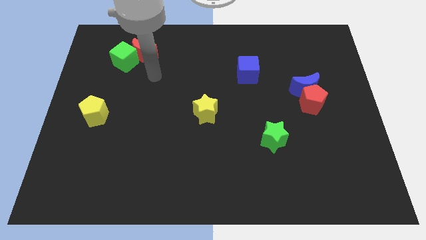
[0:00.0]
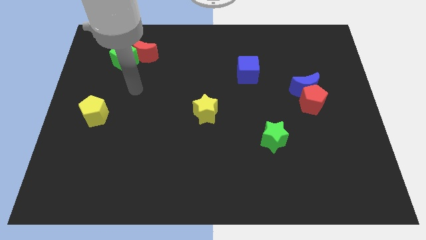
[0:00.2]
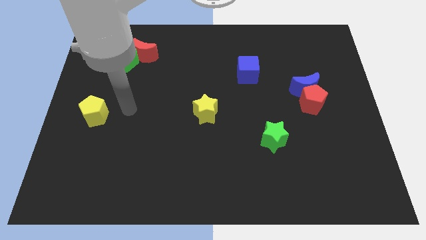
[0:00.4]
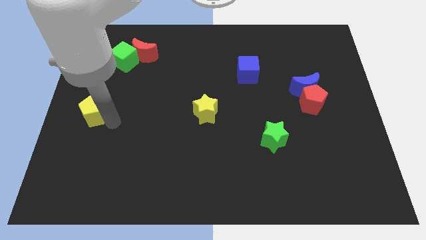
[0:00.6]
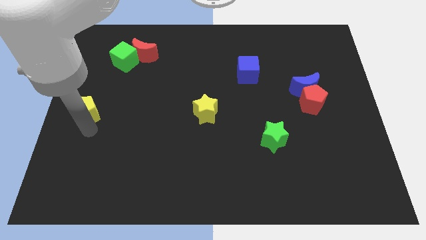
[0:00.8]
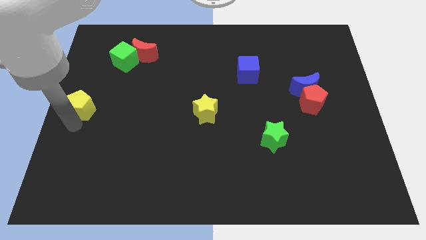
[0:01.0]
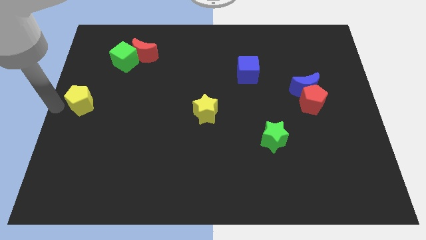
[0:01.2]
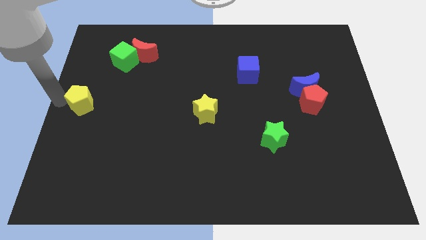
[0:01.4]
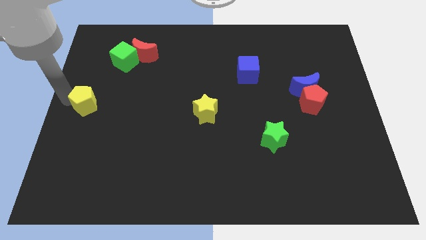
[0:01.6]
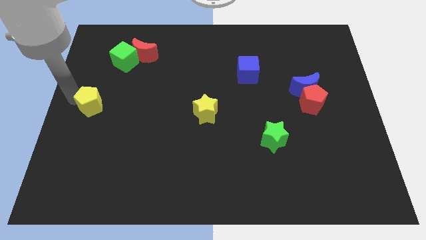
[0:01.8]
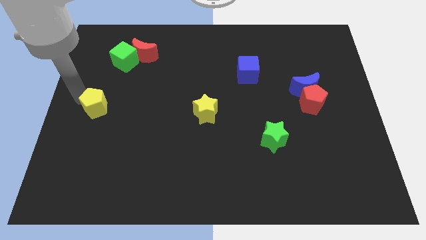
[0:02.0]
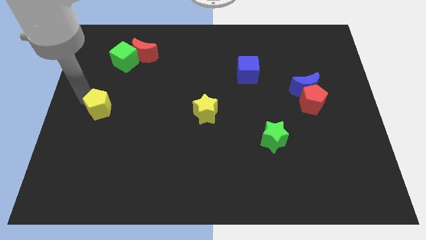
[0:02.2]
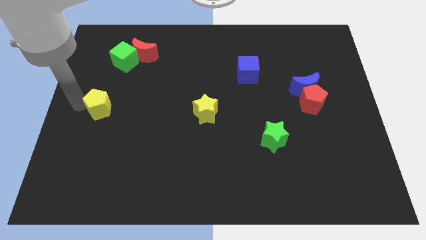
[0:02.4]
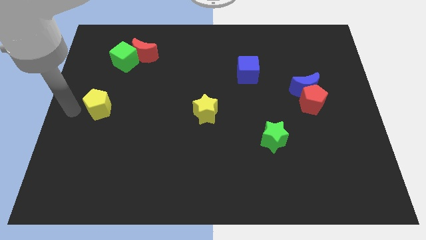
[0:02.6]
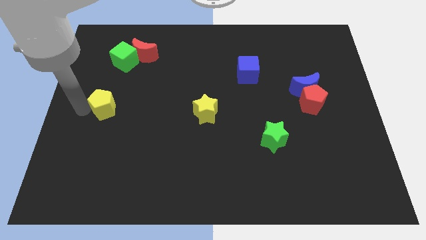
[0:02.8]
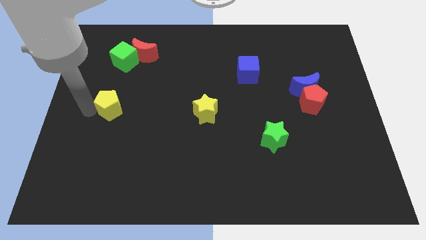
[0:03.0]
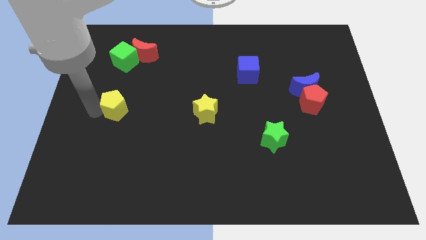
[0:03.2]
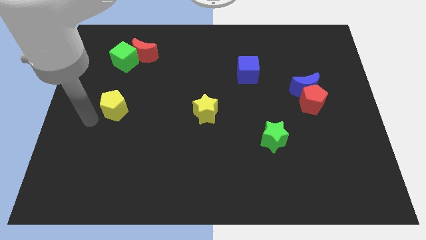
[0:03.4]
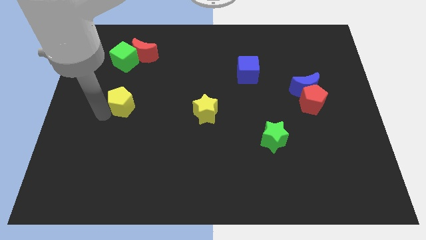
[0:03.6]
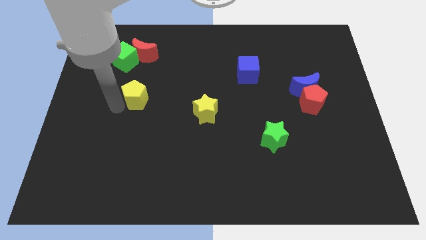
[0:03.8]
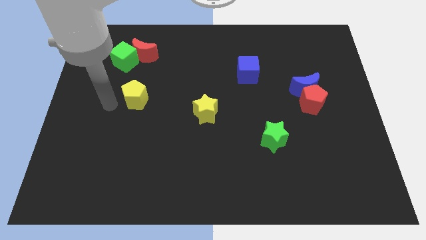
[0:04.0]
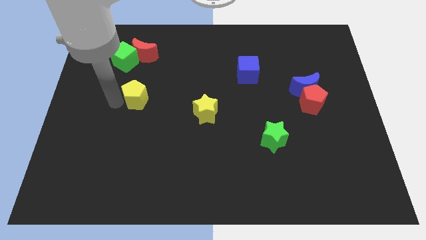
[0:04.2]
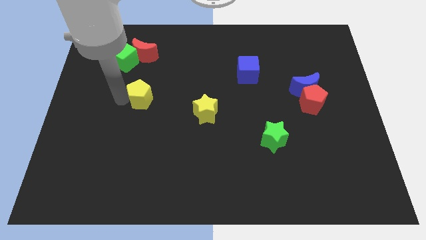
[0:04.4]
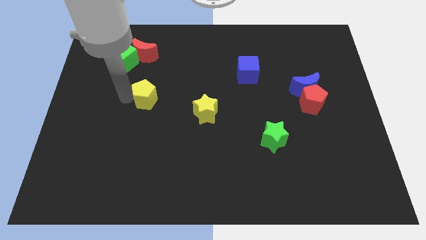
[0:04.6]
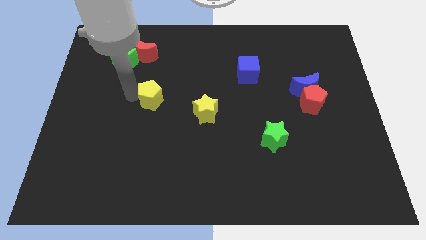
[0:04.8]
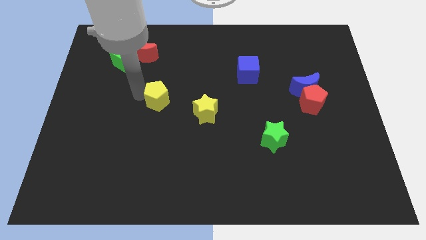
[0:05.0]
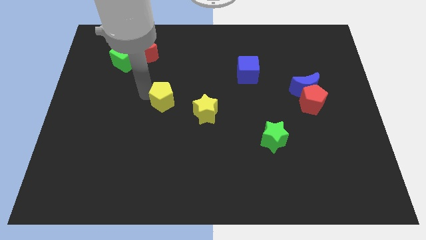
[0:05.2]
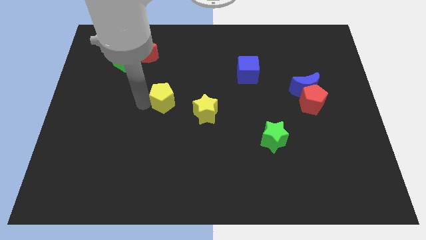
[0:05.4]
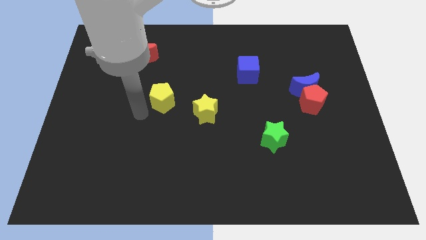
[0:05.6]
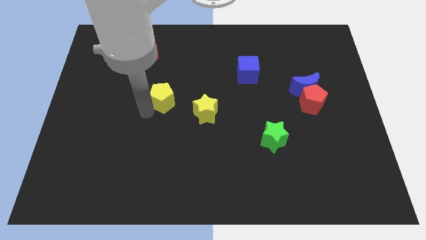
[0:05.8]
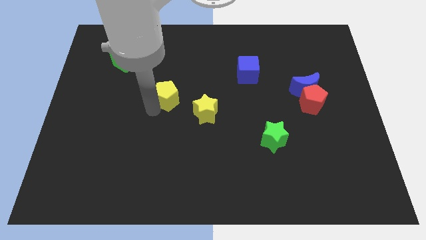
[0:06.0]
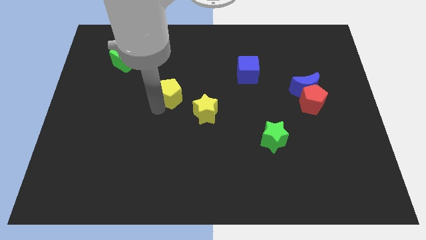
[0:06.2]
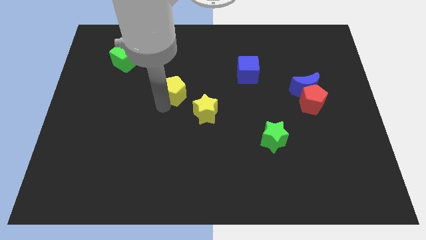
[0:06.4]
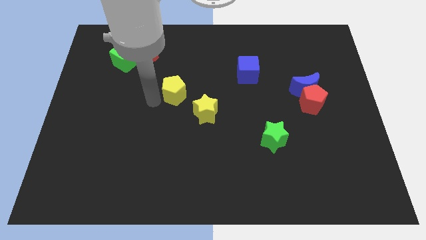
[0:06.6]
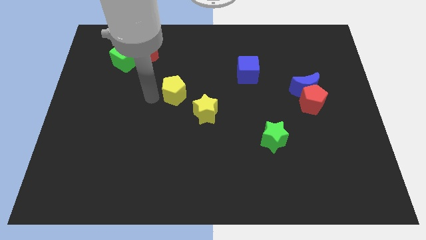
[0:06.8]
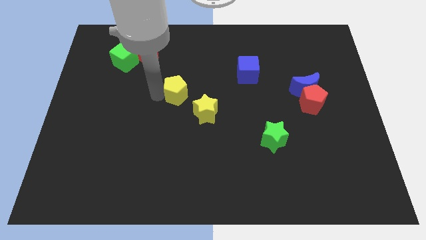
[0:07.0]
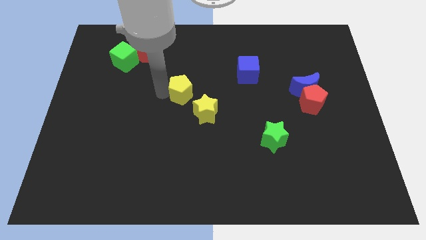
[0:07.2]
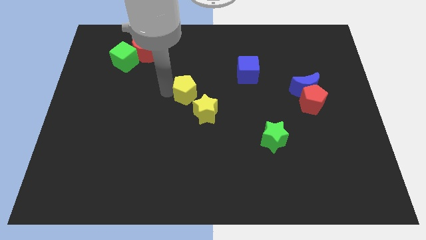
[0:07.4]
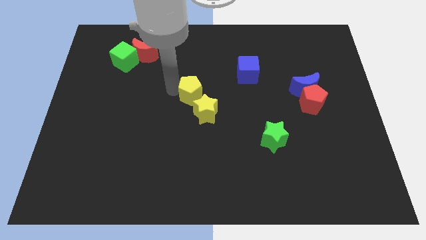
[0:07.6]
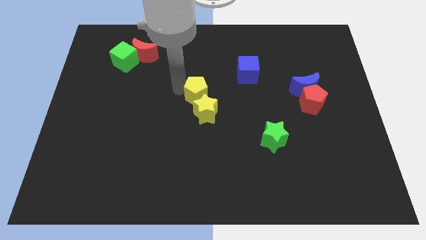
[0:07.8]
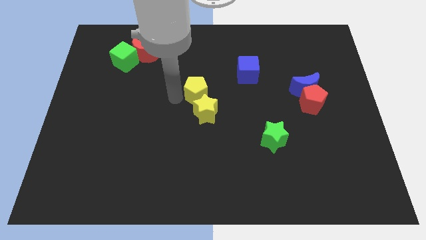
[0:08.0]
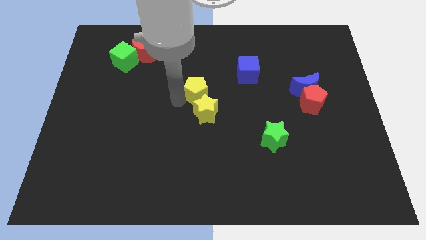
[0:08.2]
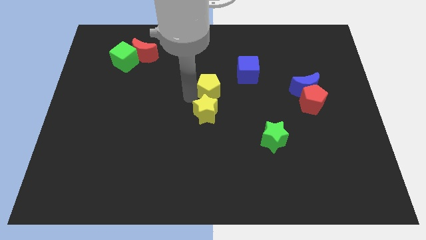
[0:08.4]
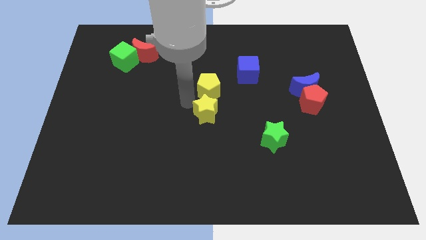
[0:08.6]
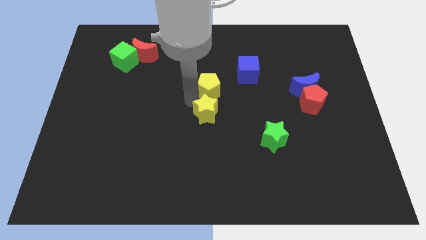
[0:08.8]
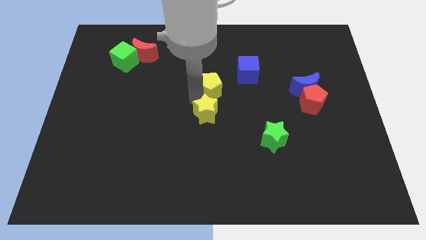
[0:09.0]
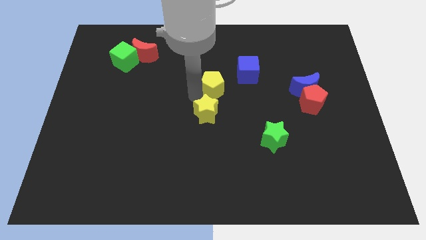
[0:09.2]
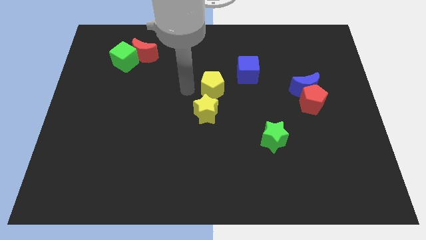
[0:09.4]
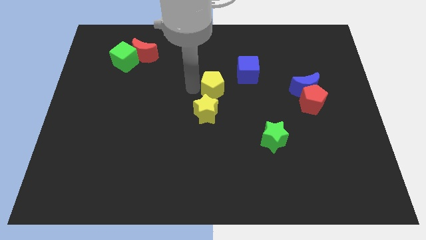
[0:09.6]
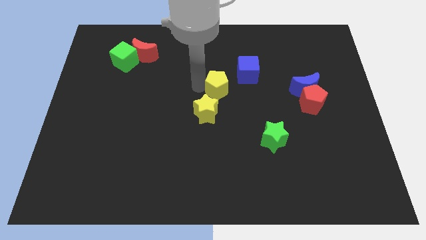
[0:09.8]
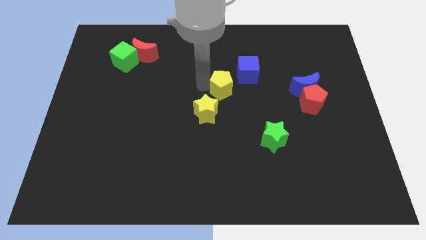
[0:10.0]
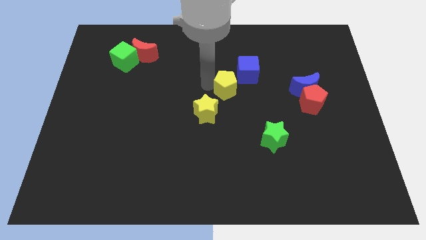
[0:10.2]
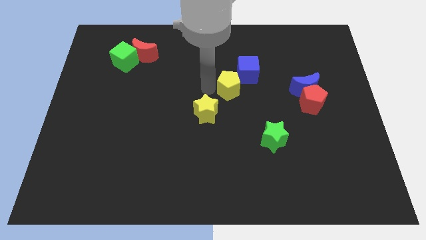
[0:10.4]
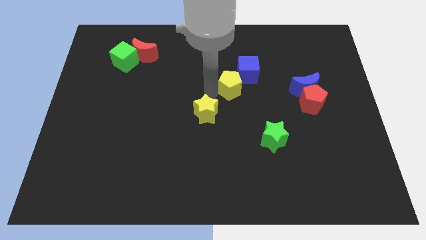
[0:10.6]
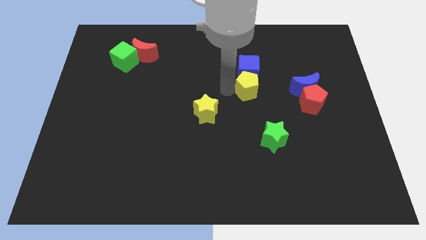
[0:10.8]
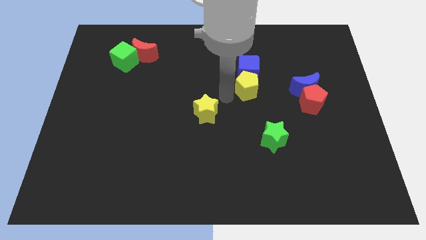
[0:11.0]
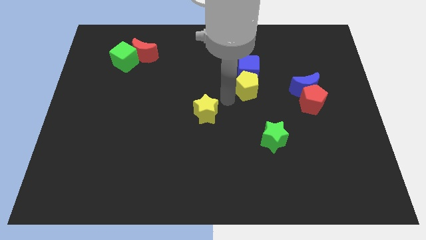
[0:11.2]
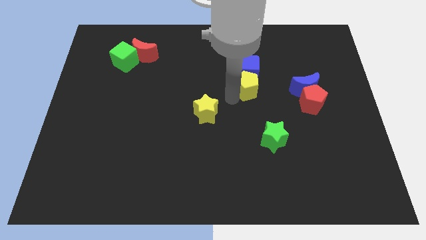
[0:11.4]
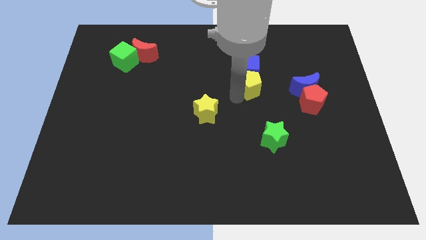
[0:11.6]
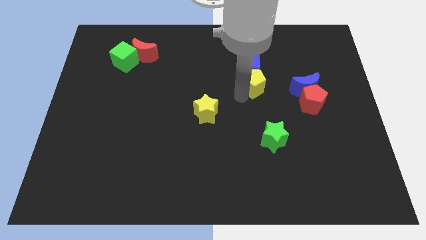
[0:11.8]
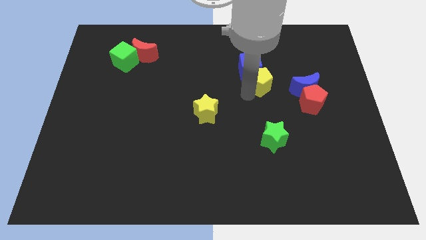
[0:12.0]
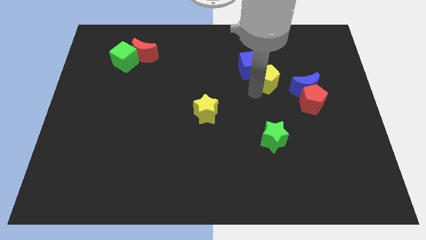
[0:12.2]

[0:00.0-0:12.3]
move the yellow pentagon to the right side of the blue cube

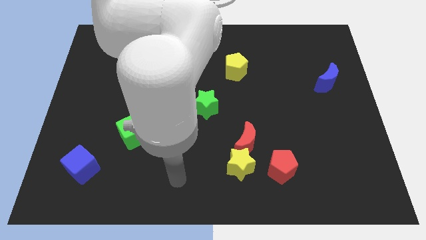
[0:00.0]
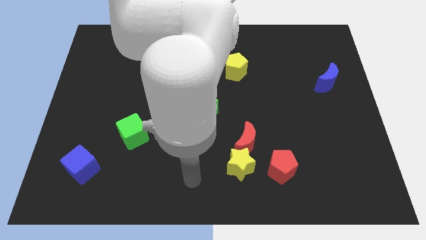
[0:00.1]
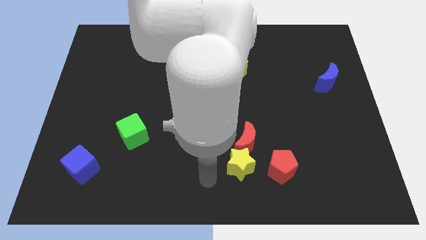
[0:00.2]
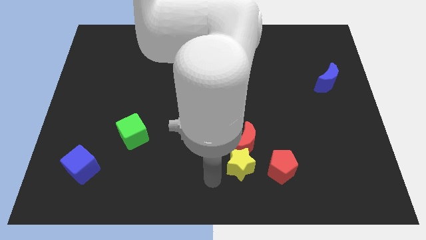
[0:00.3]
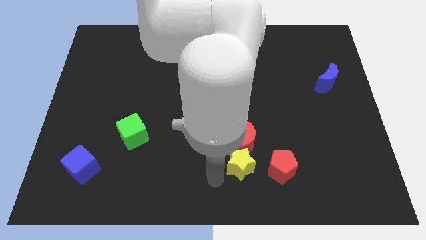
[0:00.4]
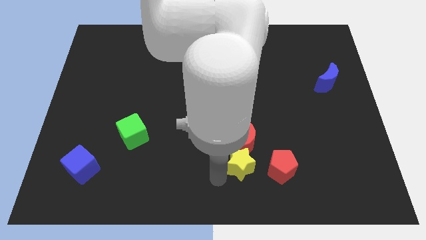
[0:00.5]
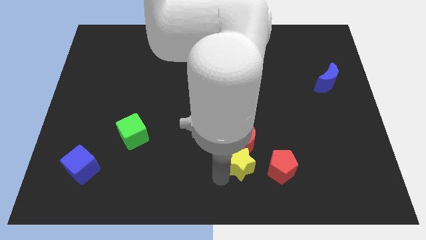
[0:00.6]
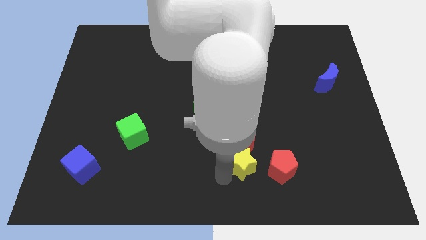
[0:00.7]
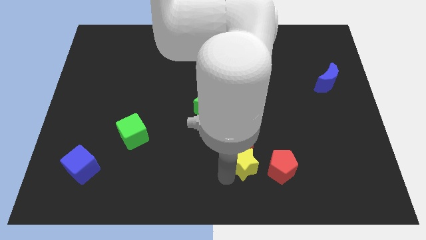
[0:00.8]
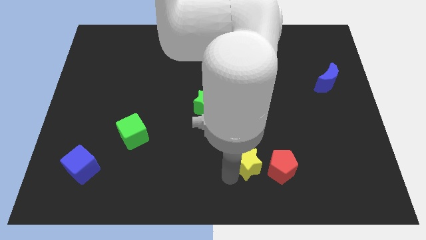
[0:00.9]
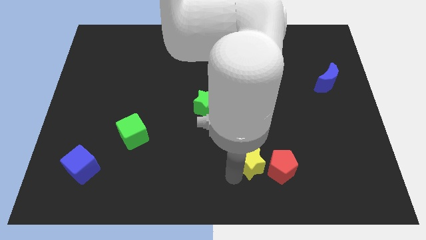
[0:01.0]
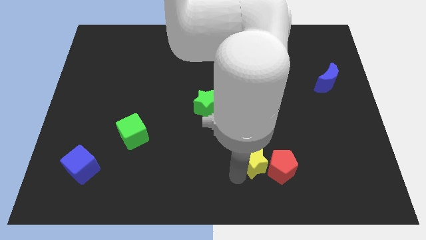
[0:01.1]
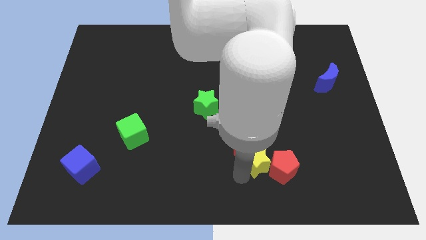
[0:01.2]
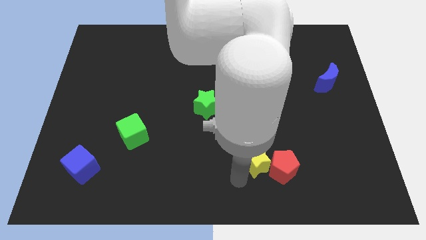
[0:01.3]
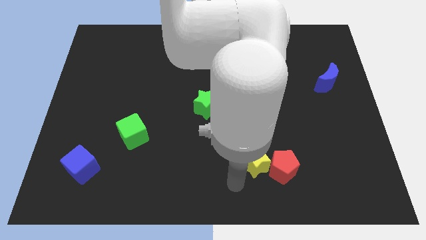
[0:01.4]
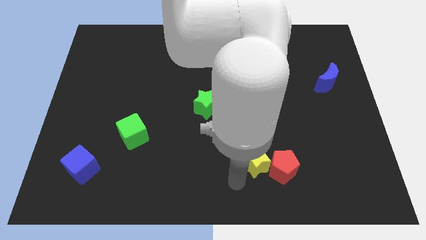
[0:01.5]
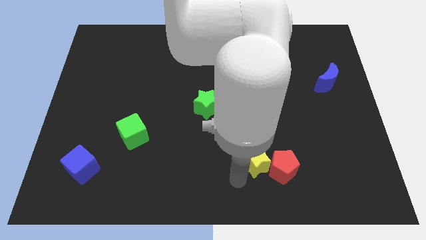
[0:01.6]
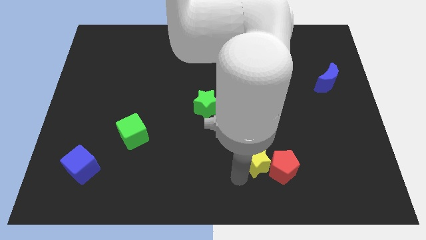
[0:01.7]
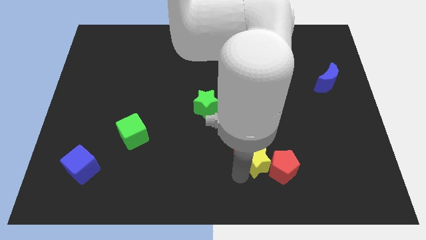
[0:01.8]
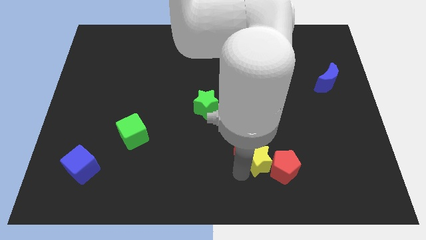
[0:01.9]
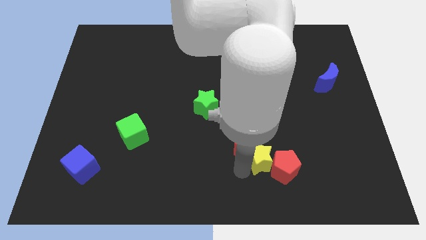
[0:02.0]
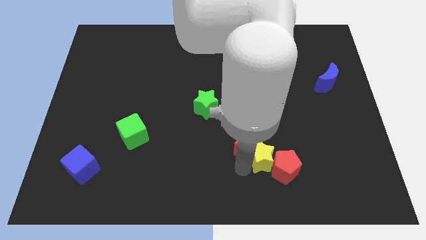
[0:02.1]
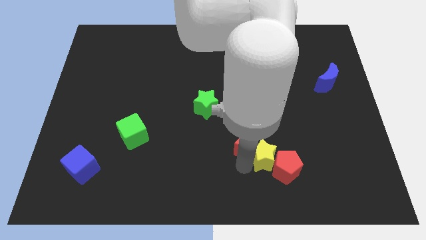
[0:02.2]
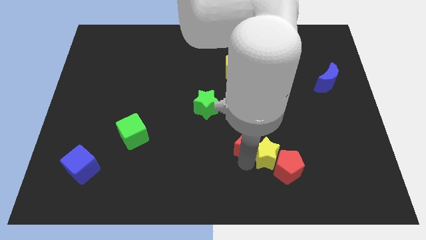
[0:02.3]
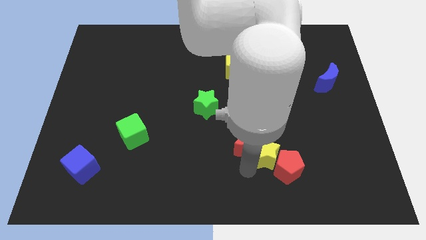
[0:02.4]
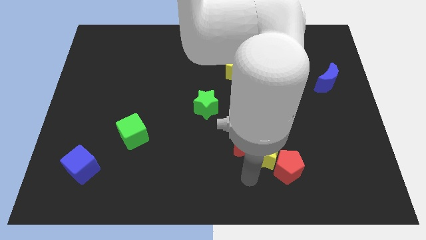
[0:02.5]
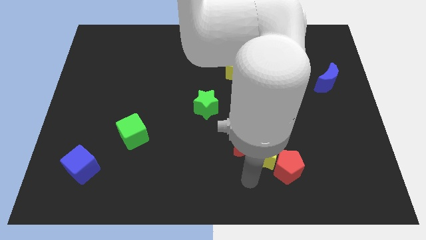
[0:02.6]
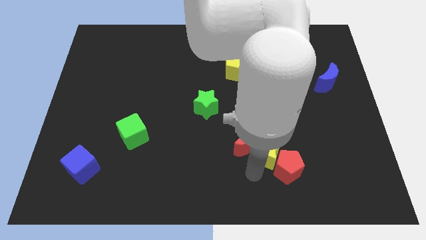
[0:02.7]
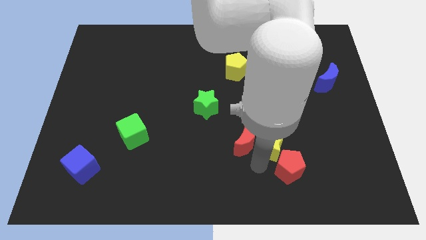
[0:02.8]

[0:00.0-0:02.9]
put the yellow star to the top of the red pentagon
